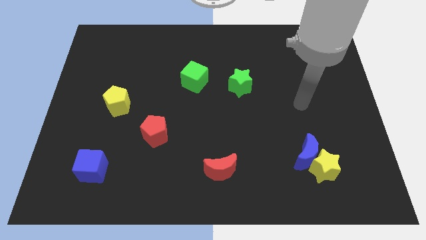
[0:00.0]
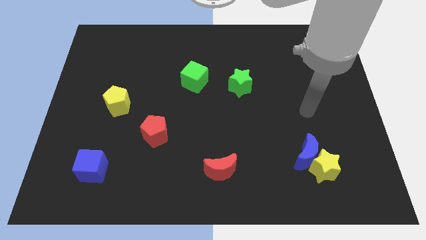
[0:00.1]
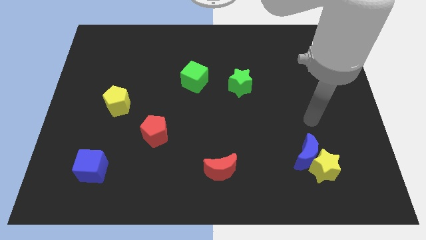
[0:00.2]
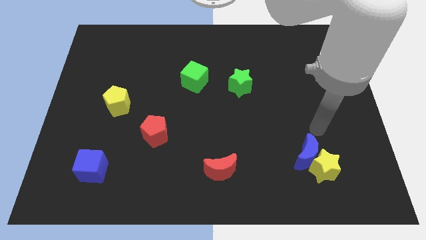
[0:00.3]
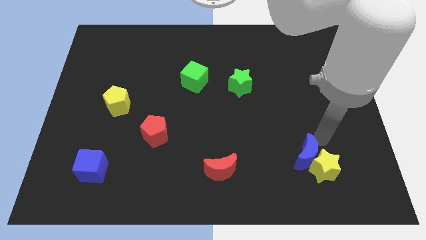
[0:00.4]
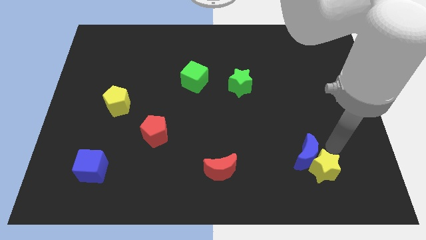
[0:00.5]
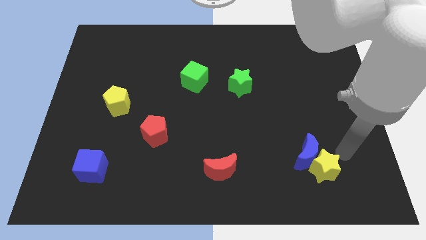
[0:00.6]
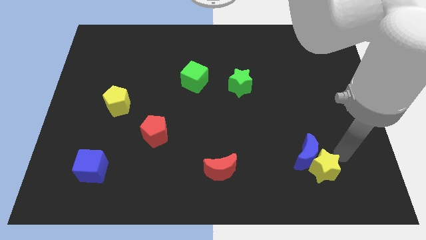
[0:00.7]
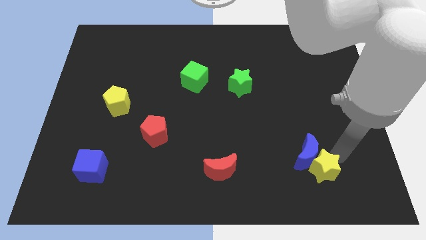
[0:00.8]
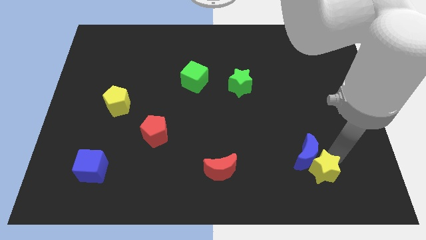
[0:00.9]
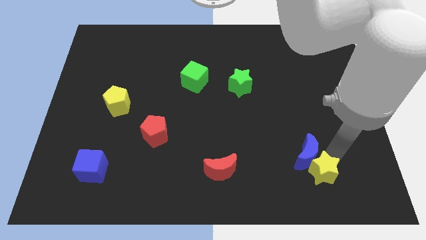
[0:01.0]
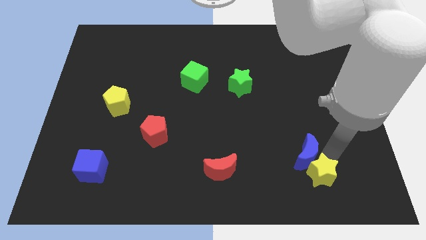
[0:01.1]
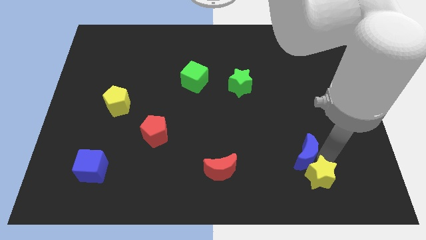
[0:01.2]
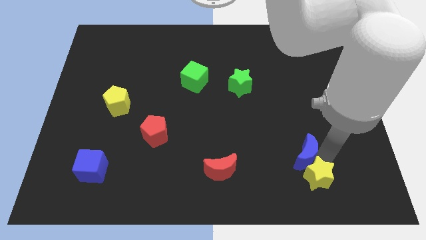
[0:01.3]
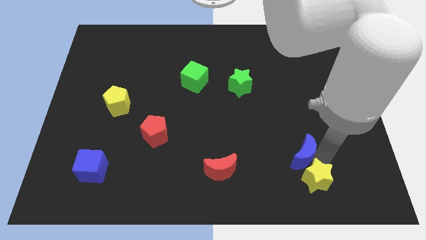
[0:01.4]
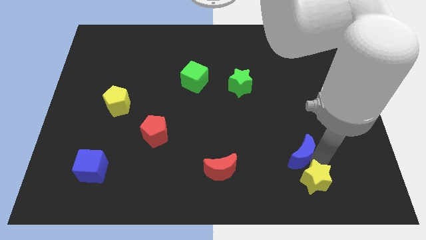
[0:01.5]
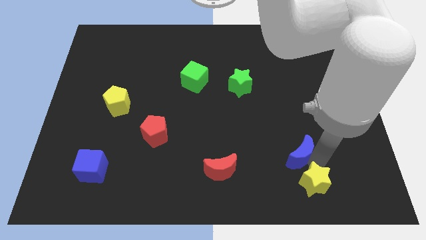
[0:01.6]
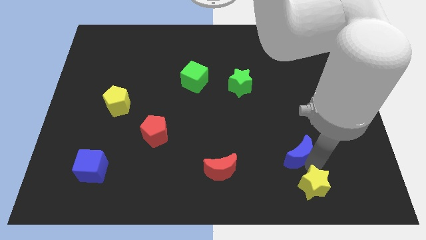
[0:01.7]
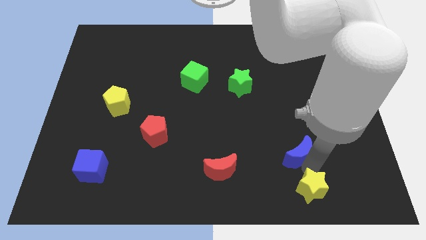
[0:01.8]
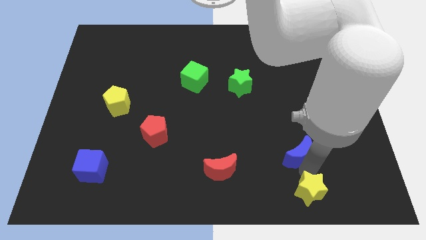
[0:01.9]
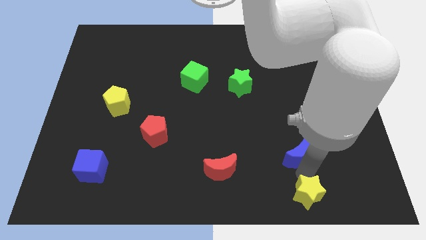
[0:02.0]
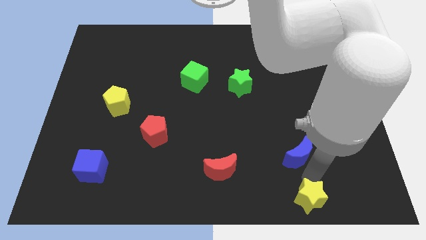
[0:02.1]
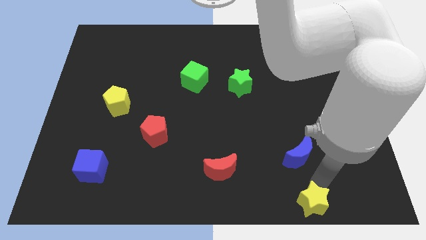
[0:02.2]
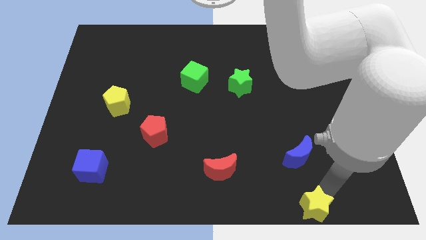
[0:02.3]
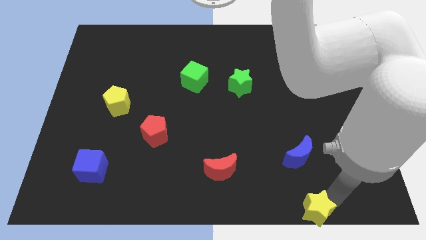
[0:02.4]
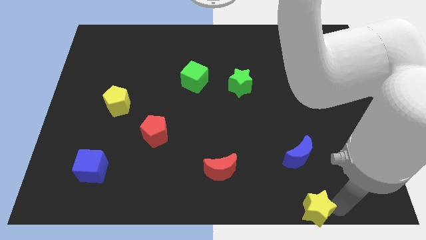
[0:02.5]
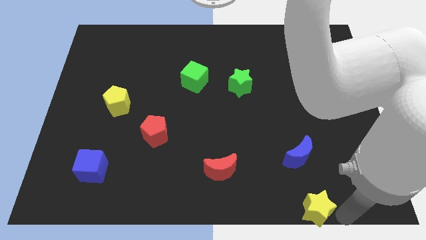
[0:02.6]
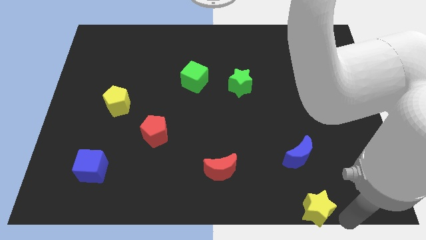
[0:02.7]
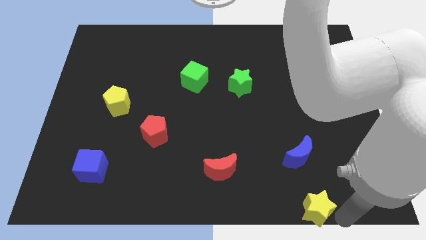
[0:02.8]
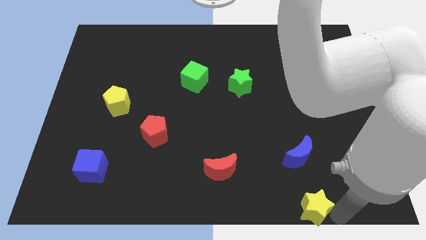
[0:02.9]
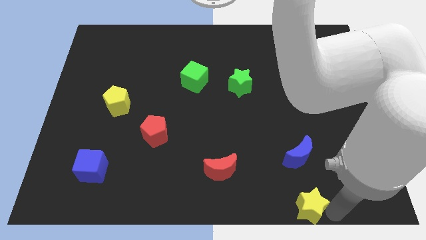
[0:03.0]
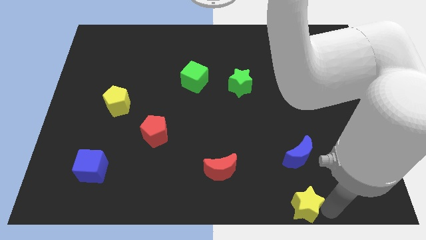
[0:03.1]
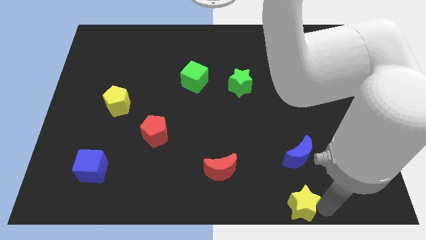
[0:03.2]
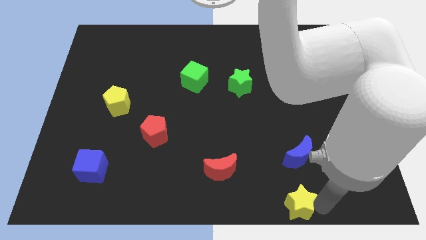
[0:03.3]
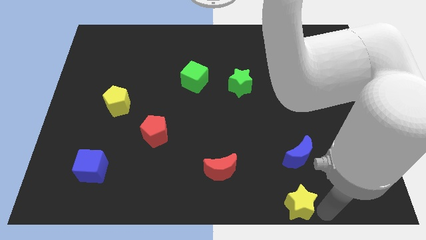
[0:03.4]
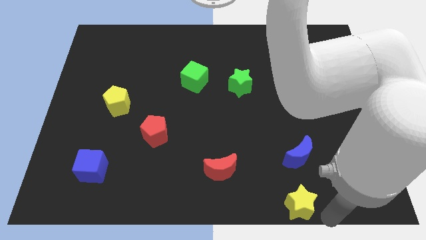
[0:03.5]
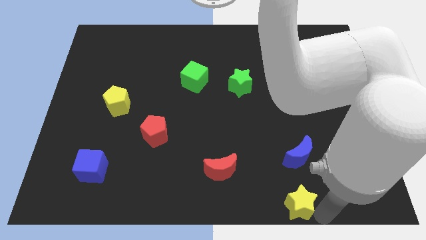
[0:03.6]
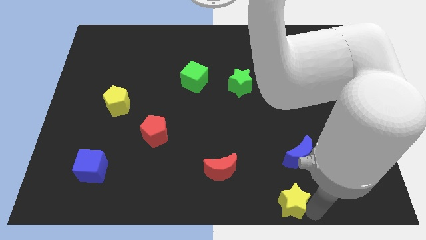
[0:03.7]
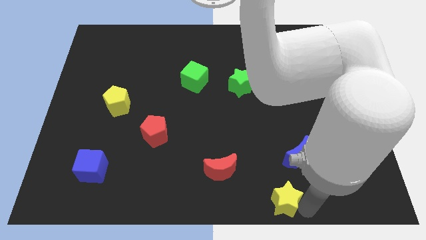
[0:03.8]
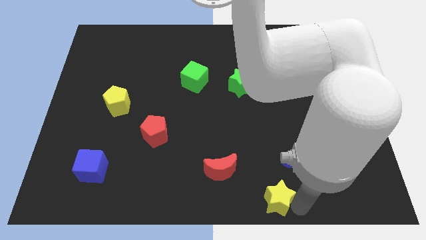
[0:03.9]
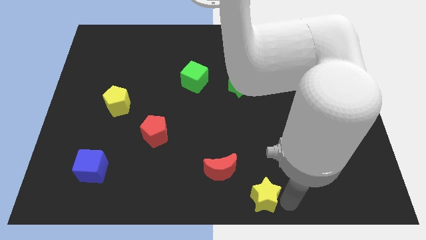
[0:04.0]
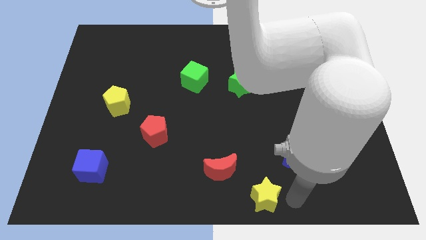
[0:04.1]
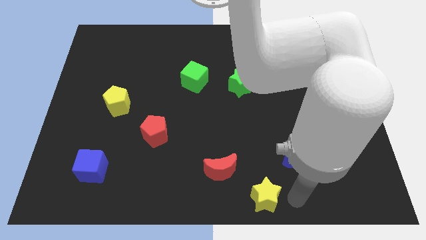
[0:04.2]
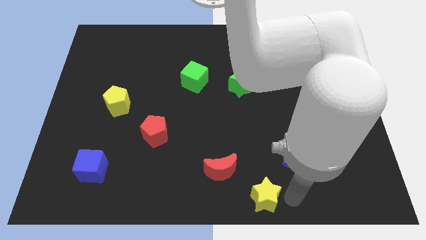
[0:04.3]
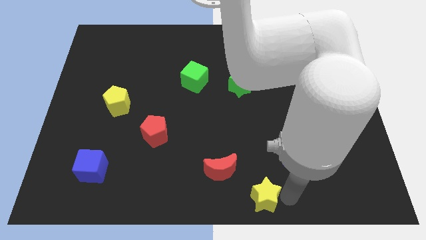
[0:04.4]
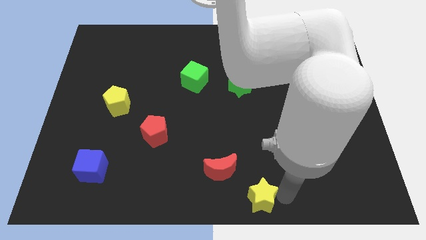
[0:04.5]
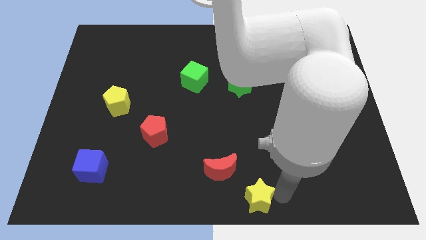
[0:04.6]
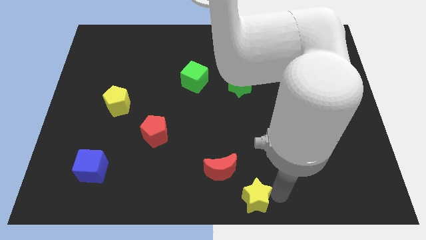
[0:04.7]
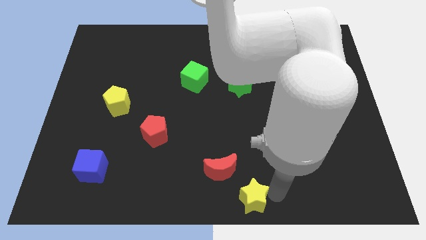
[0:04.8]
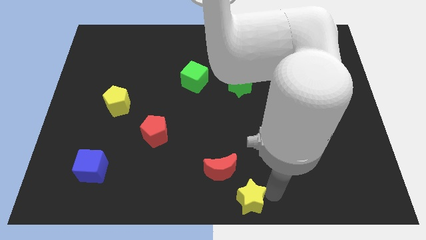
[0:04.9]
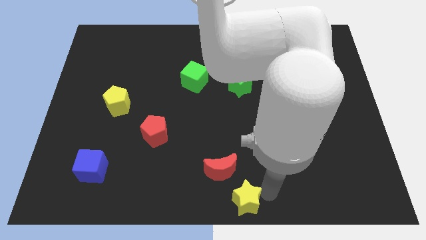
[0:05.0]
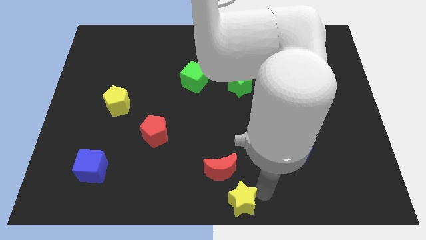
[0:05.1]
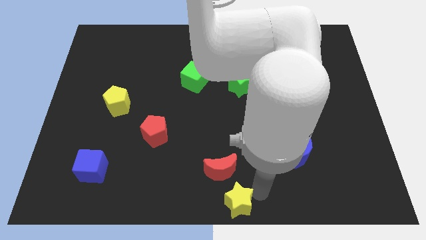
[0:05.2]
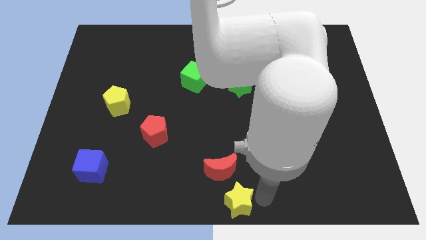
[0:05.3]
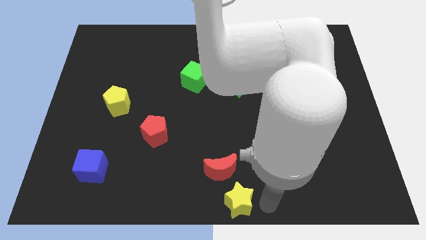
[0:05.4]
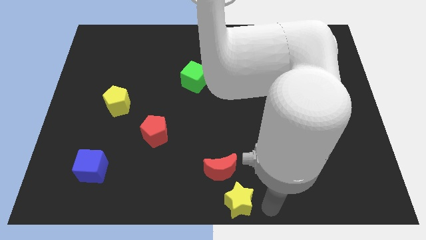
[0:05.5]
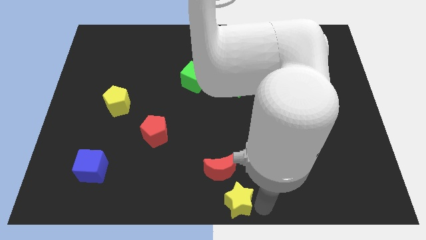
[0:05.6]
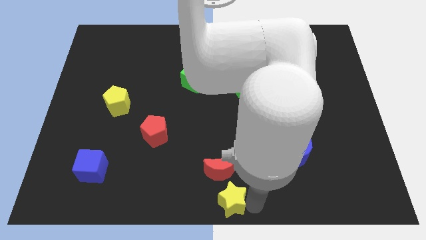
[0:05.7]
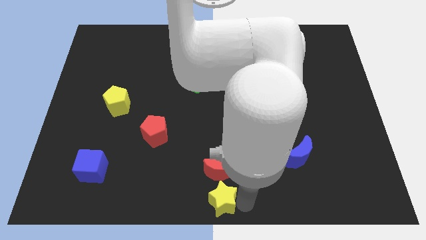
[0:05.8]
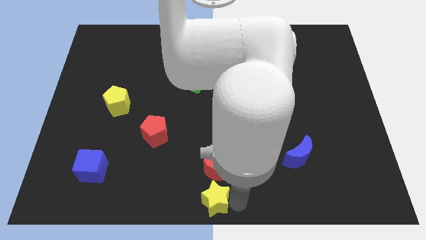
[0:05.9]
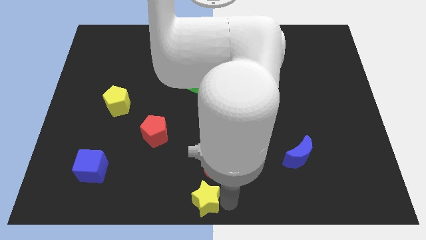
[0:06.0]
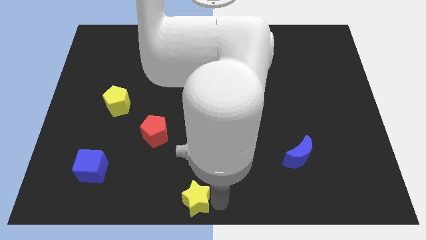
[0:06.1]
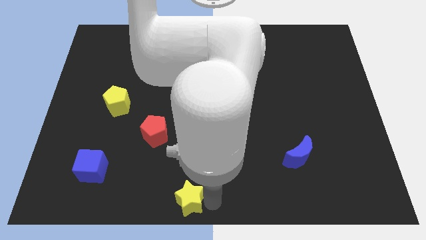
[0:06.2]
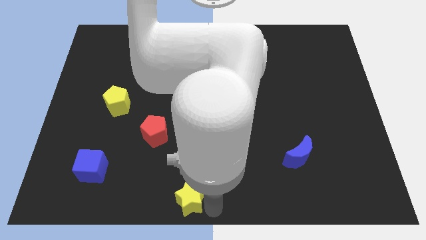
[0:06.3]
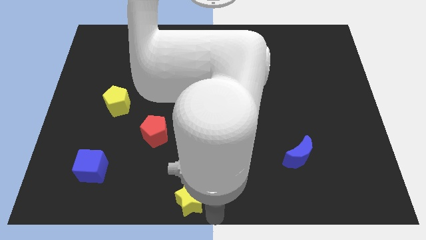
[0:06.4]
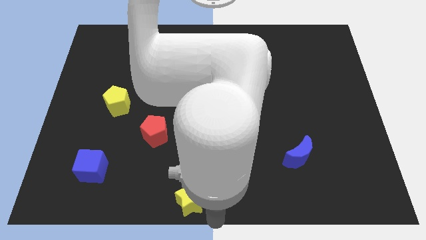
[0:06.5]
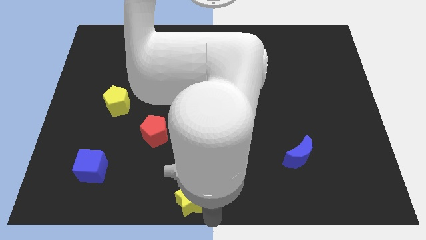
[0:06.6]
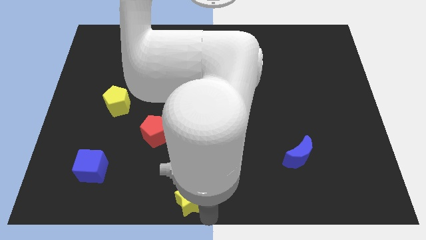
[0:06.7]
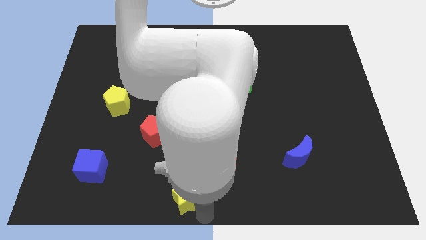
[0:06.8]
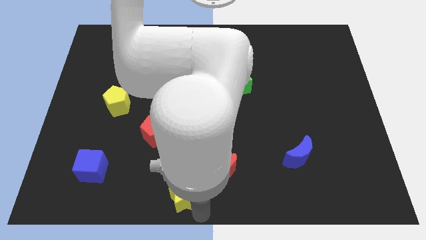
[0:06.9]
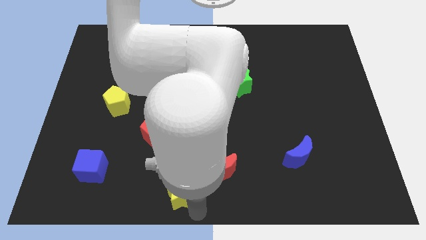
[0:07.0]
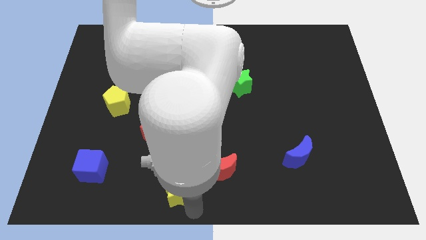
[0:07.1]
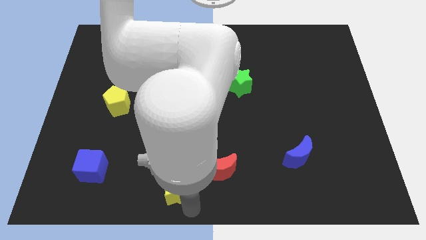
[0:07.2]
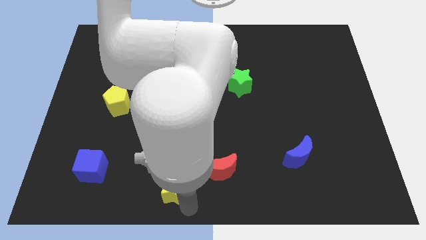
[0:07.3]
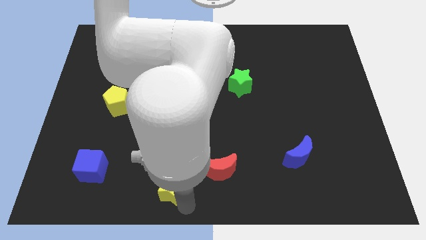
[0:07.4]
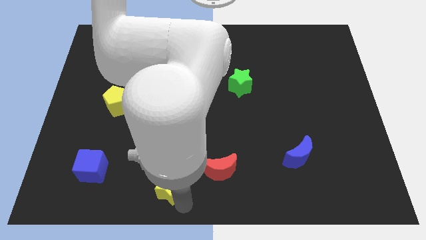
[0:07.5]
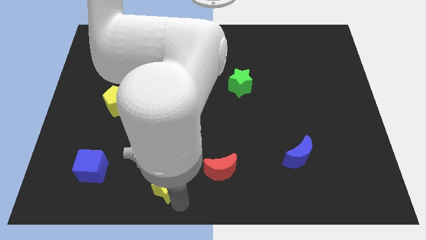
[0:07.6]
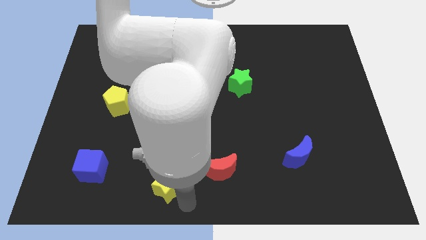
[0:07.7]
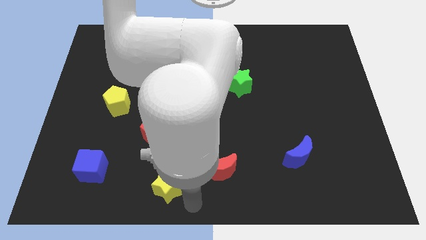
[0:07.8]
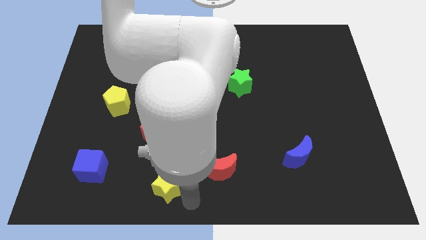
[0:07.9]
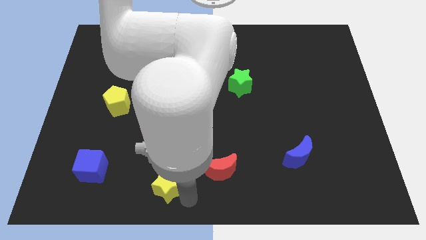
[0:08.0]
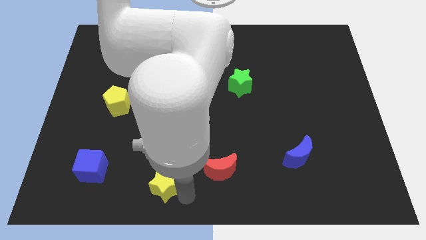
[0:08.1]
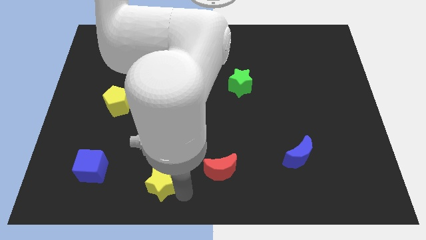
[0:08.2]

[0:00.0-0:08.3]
slide the yellow star to the right of the blue cube
